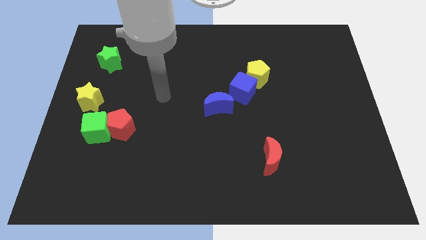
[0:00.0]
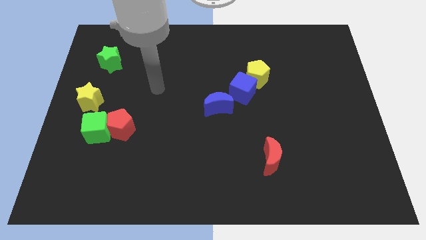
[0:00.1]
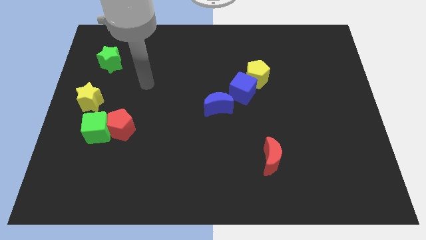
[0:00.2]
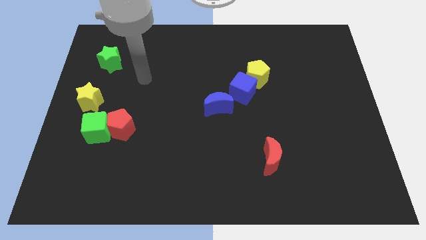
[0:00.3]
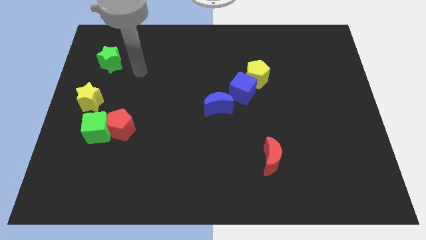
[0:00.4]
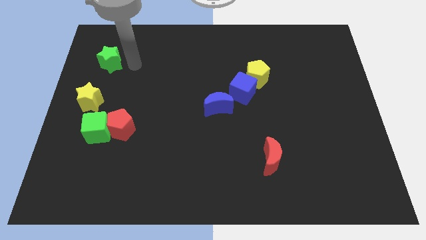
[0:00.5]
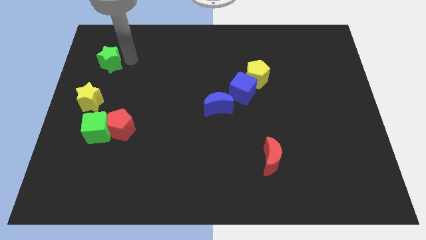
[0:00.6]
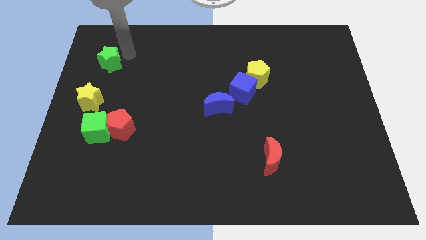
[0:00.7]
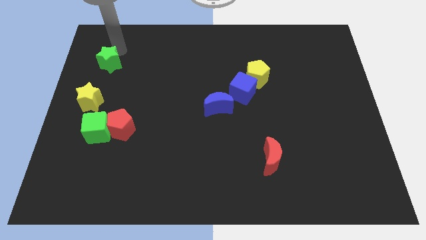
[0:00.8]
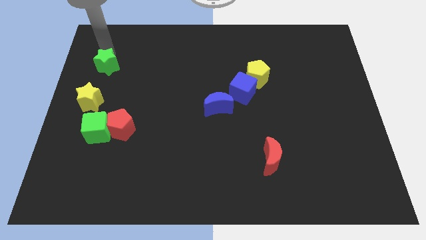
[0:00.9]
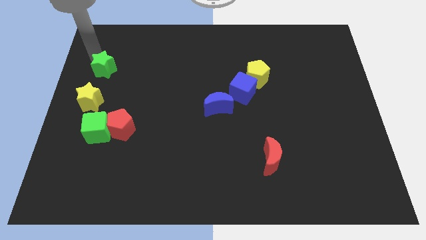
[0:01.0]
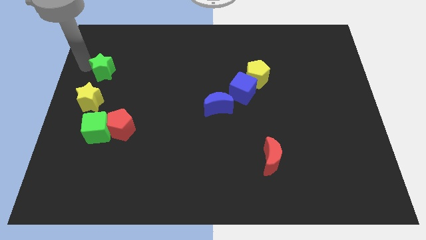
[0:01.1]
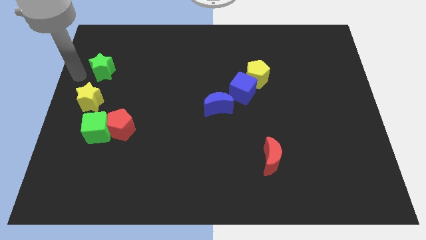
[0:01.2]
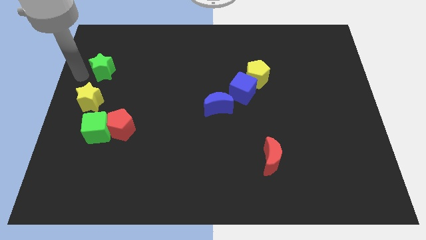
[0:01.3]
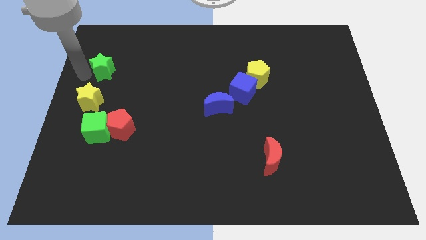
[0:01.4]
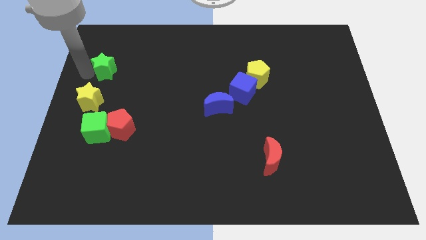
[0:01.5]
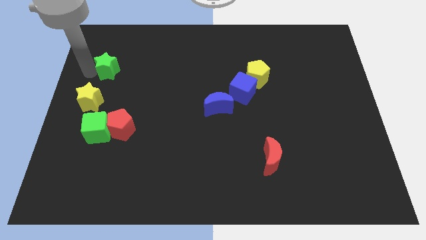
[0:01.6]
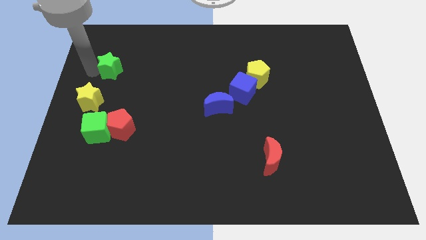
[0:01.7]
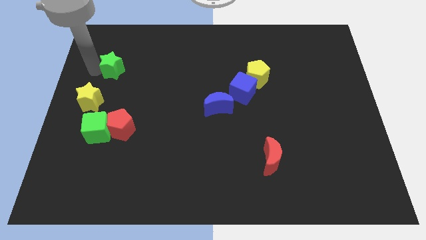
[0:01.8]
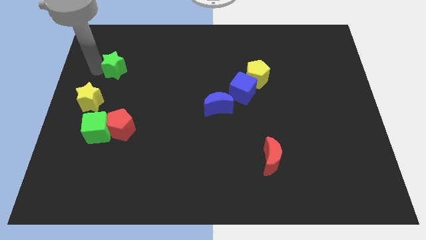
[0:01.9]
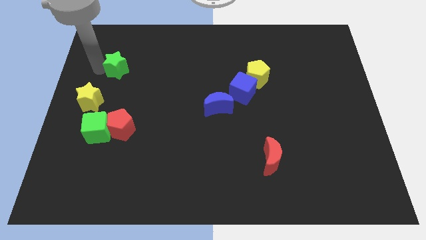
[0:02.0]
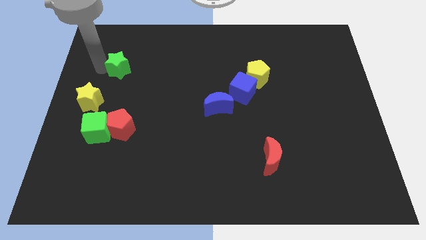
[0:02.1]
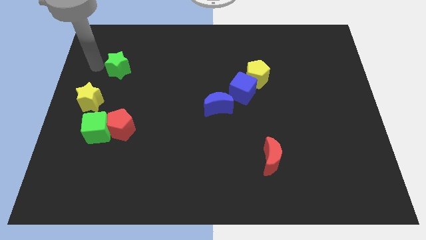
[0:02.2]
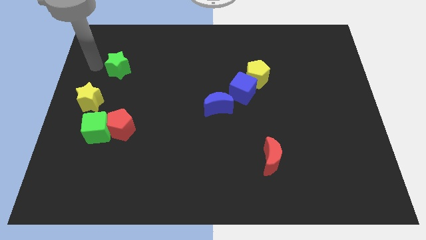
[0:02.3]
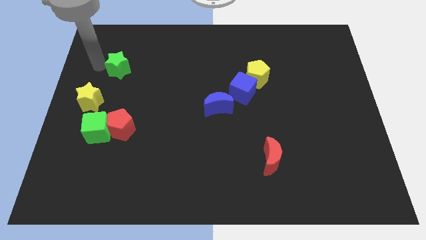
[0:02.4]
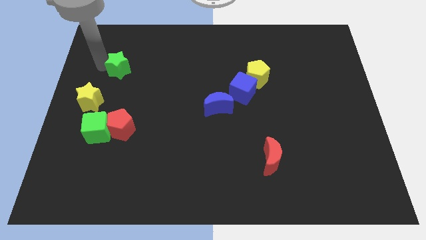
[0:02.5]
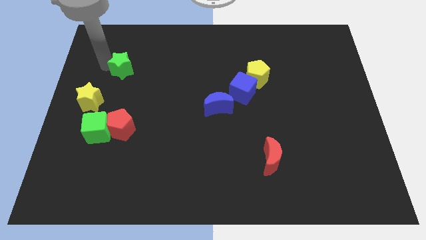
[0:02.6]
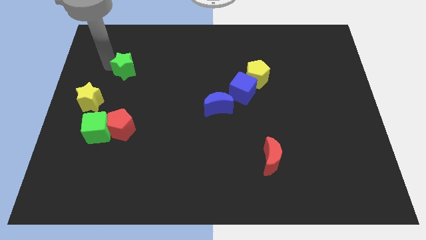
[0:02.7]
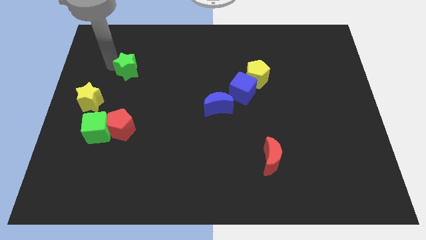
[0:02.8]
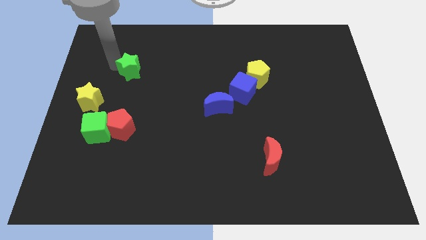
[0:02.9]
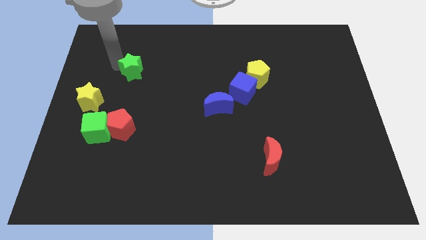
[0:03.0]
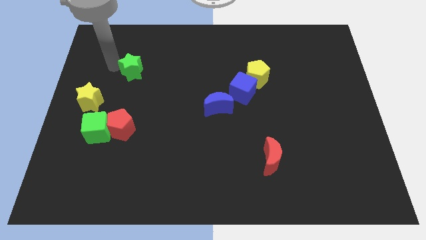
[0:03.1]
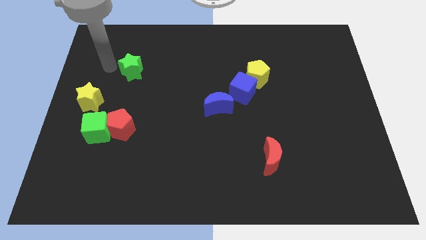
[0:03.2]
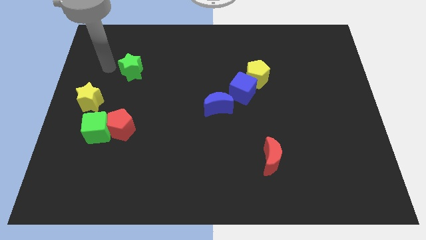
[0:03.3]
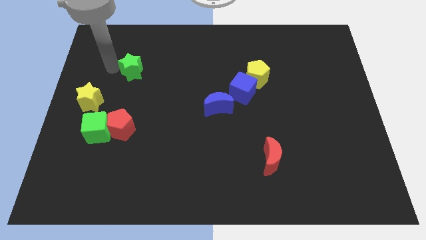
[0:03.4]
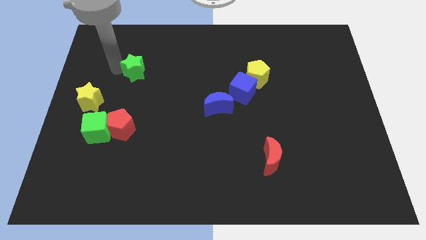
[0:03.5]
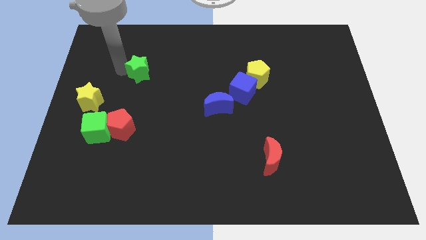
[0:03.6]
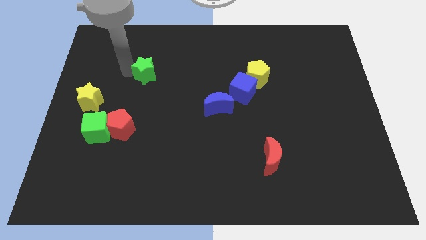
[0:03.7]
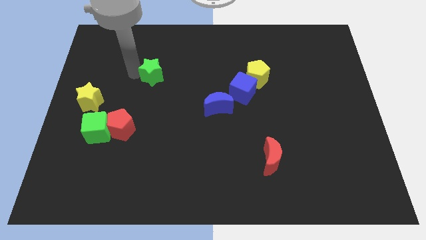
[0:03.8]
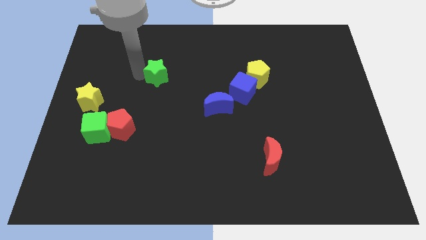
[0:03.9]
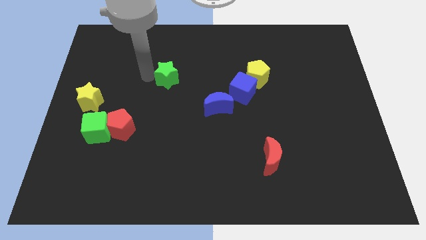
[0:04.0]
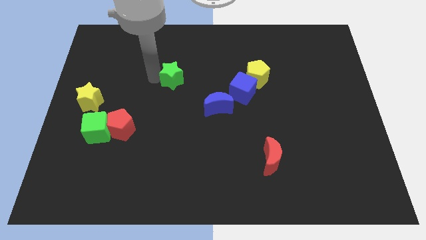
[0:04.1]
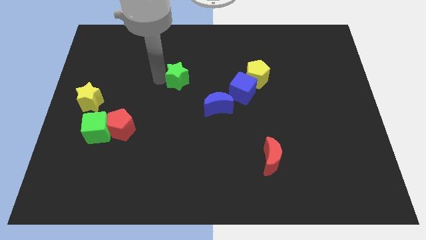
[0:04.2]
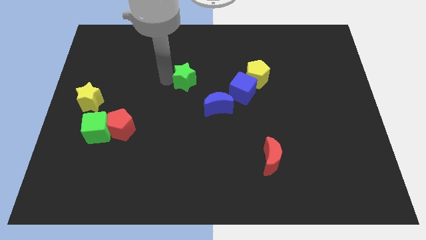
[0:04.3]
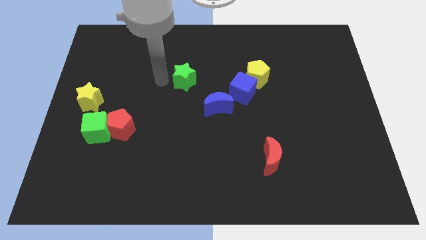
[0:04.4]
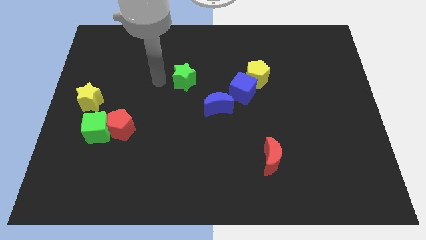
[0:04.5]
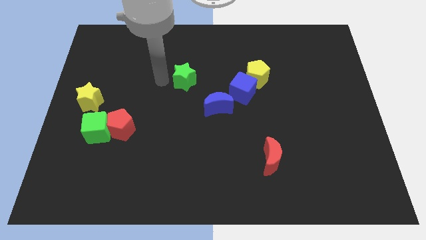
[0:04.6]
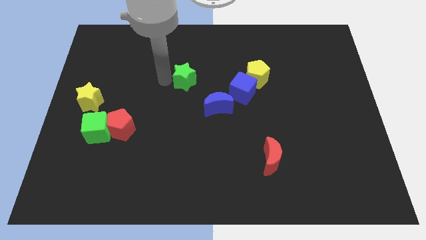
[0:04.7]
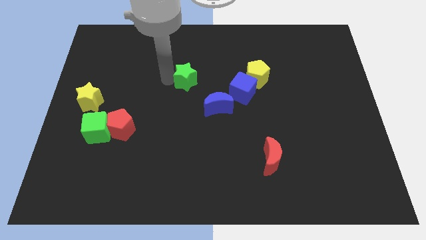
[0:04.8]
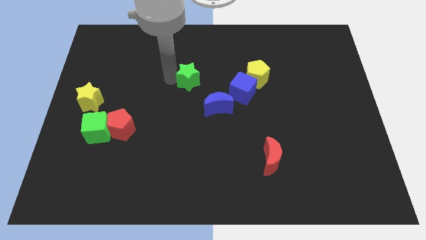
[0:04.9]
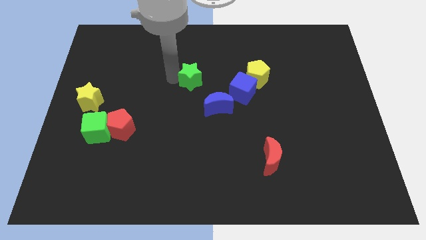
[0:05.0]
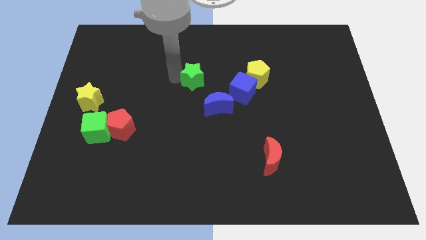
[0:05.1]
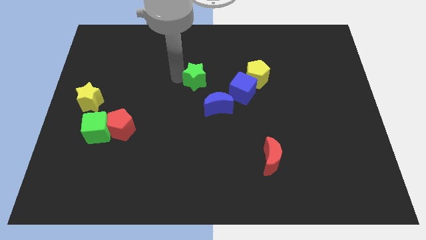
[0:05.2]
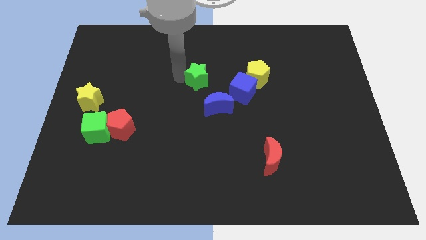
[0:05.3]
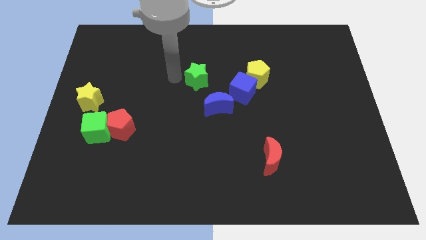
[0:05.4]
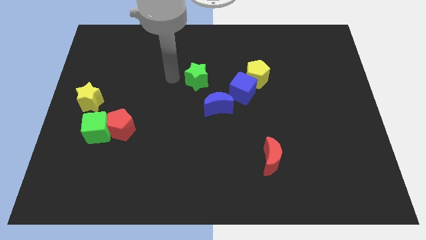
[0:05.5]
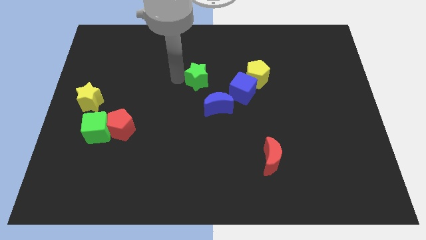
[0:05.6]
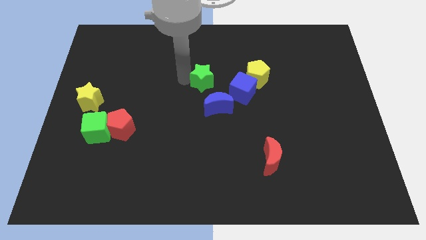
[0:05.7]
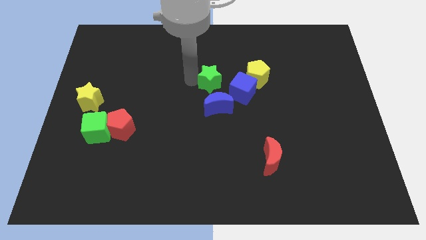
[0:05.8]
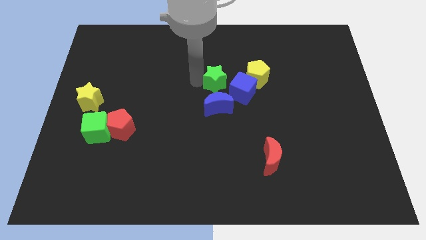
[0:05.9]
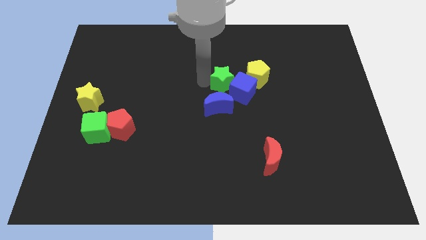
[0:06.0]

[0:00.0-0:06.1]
put the green star next to the blue cube

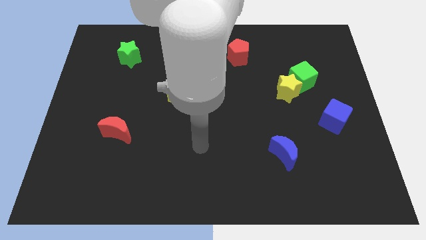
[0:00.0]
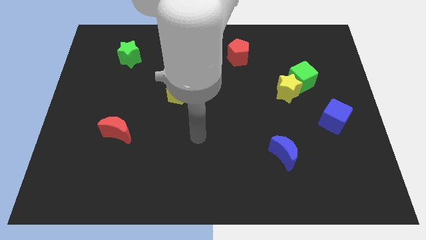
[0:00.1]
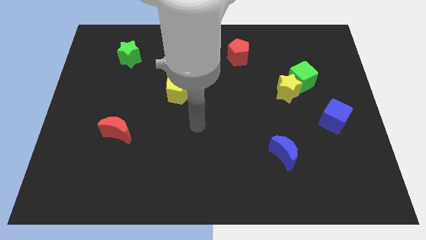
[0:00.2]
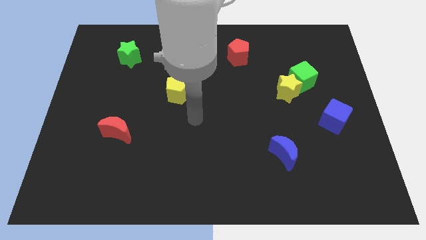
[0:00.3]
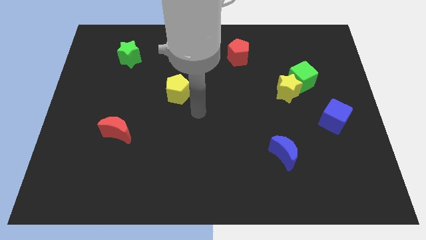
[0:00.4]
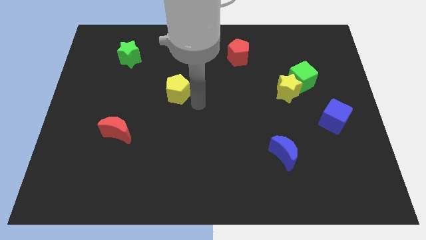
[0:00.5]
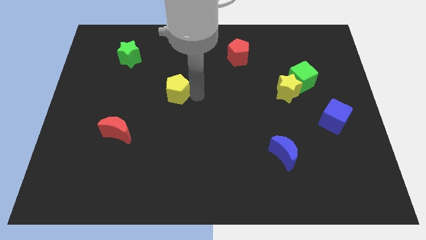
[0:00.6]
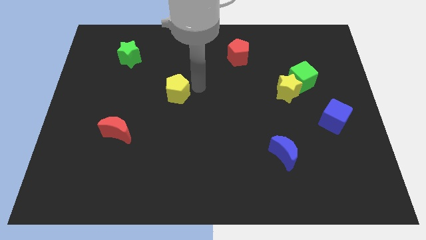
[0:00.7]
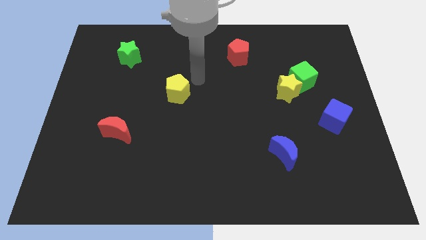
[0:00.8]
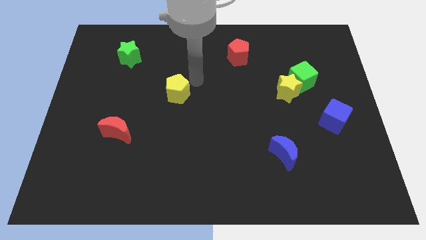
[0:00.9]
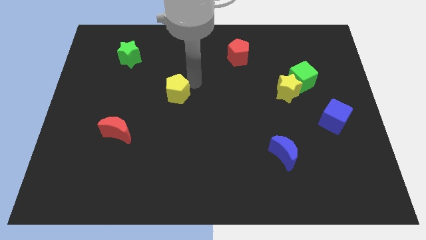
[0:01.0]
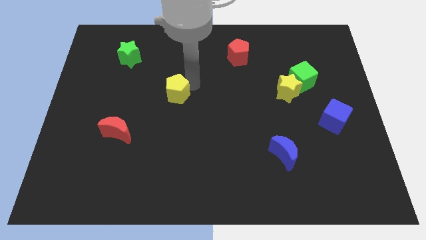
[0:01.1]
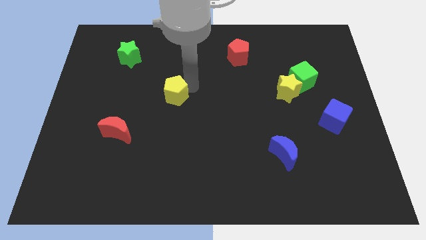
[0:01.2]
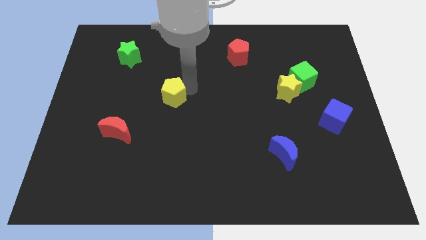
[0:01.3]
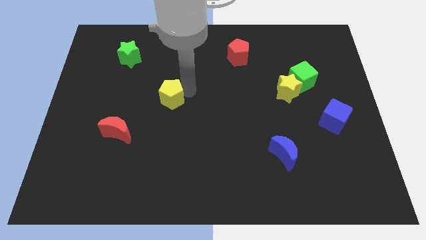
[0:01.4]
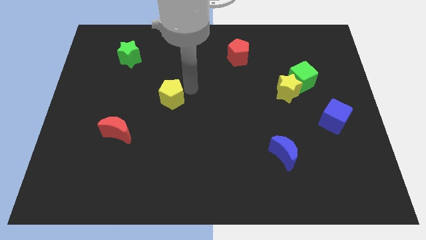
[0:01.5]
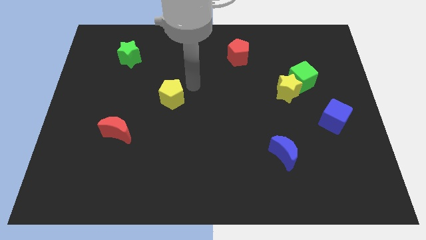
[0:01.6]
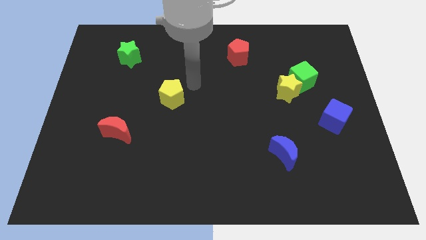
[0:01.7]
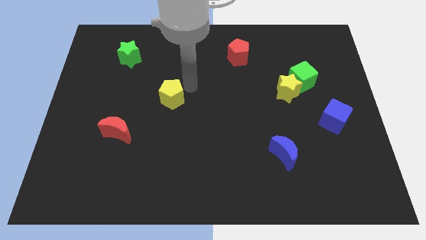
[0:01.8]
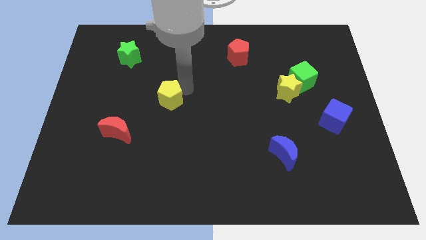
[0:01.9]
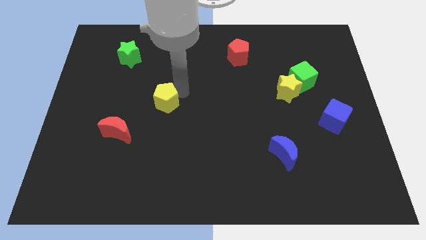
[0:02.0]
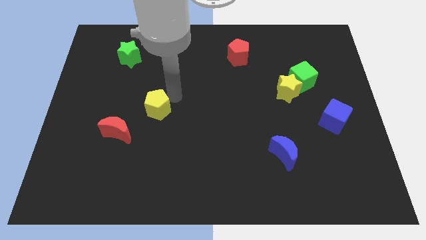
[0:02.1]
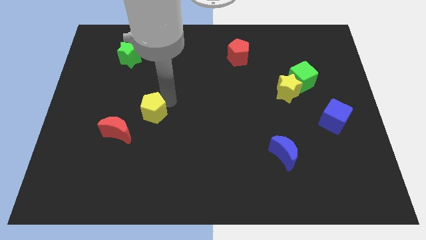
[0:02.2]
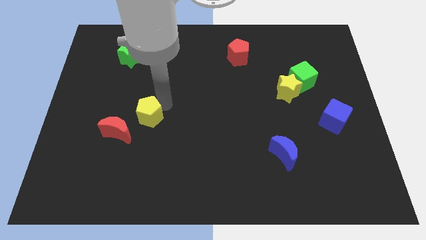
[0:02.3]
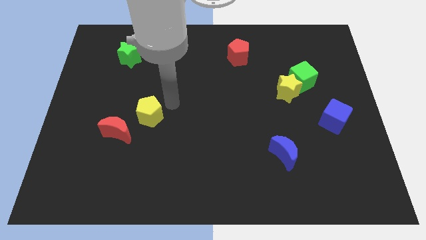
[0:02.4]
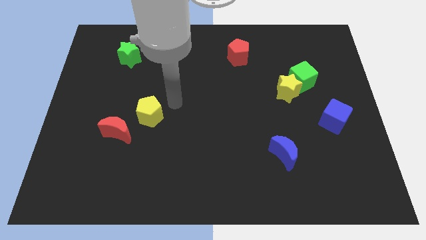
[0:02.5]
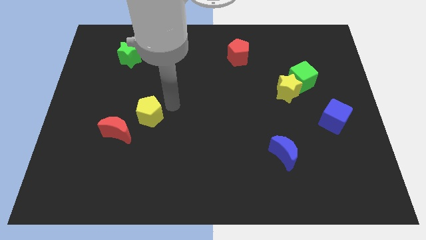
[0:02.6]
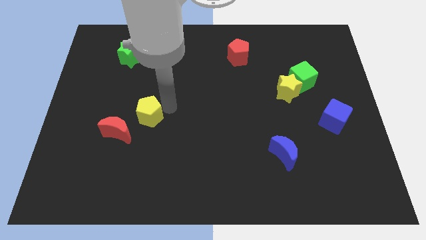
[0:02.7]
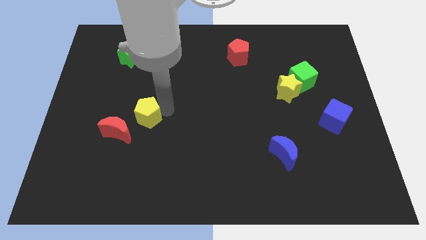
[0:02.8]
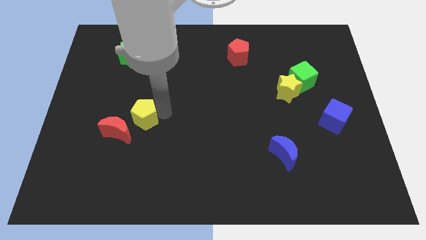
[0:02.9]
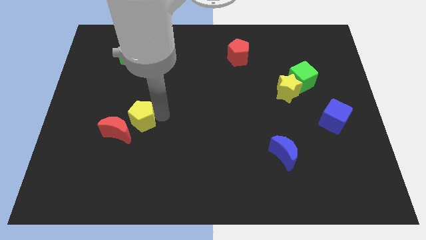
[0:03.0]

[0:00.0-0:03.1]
put the yellow pentagon next to the red moon
